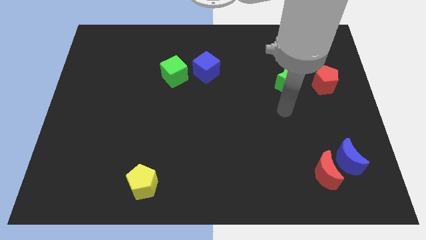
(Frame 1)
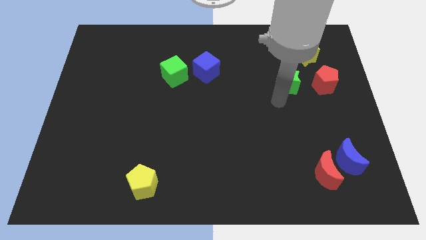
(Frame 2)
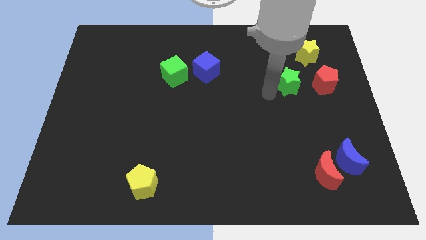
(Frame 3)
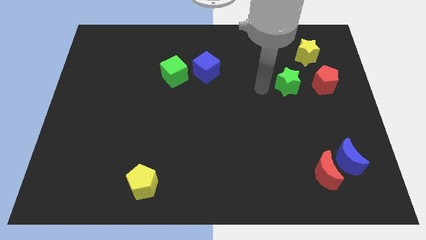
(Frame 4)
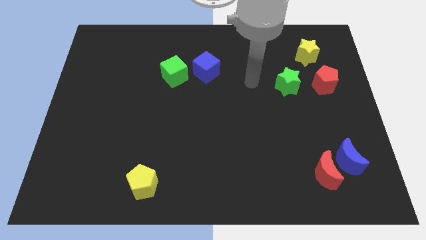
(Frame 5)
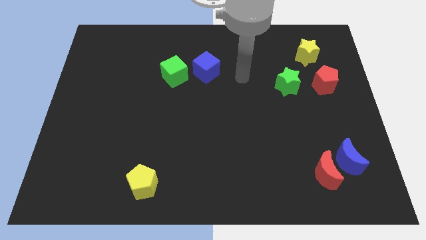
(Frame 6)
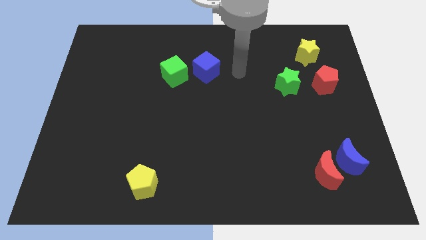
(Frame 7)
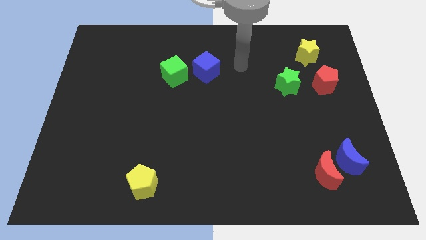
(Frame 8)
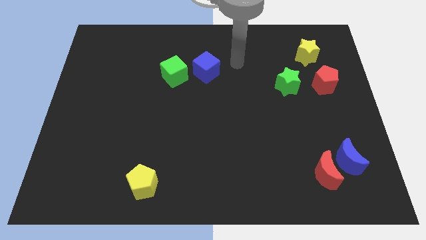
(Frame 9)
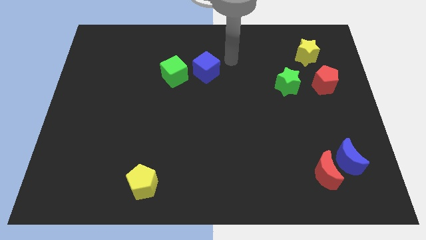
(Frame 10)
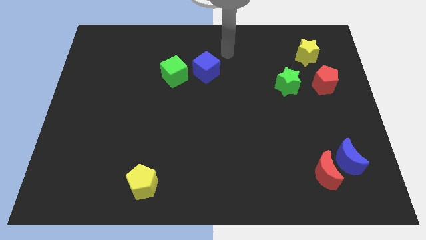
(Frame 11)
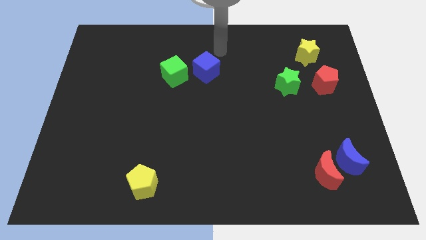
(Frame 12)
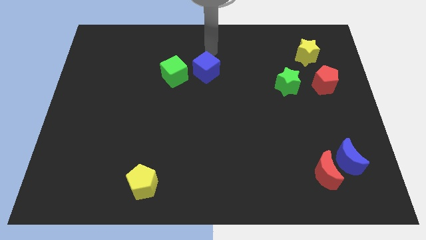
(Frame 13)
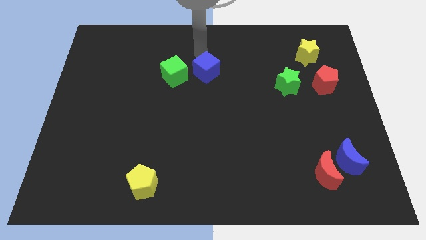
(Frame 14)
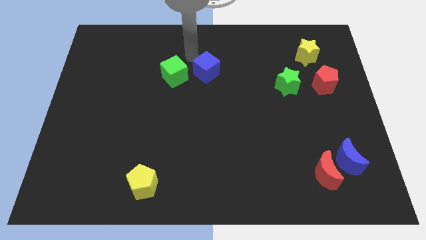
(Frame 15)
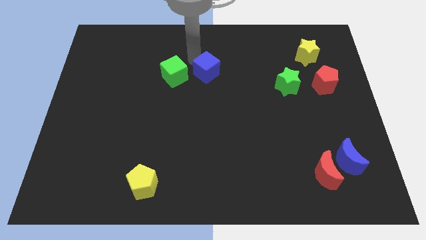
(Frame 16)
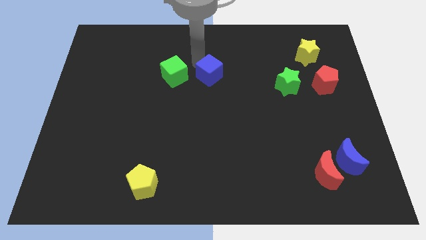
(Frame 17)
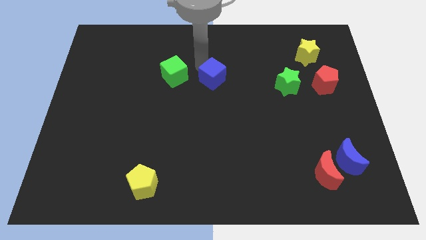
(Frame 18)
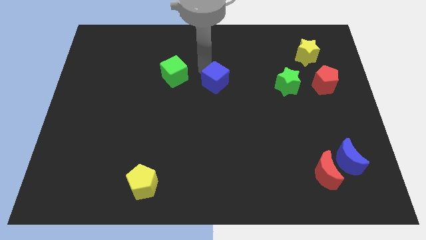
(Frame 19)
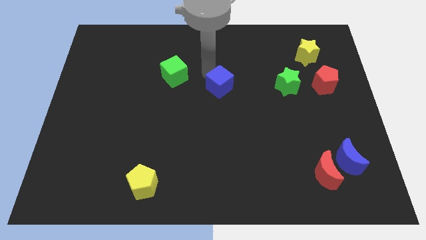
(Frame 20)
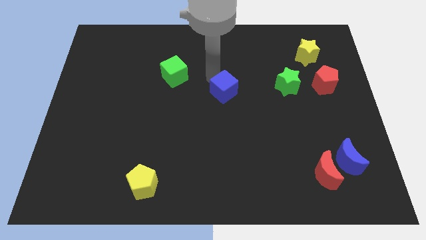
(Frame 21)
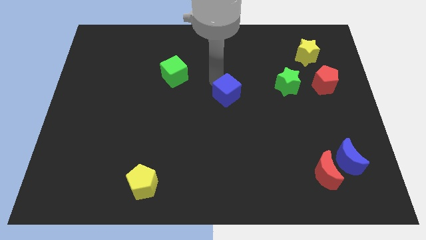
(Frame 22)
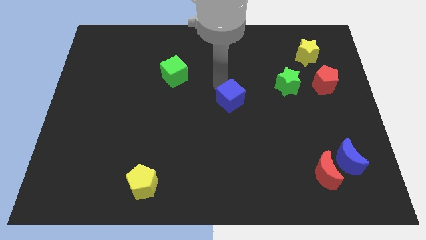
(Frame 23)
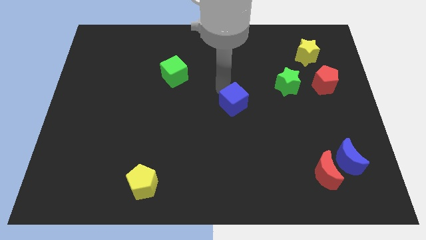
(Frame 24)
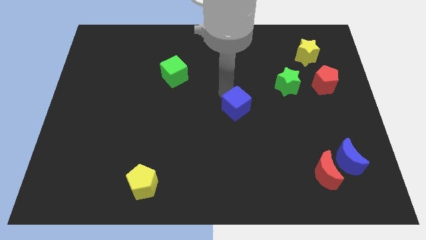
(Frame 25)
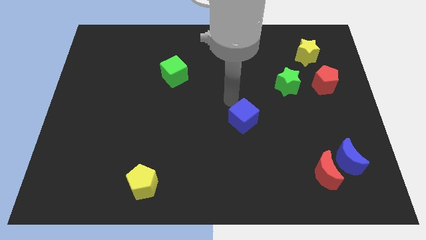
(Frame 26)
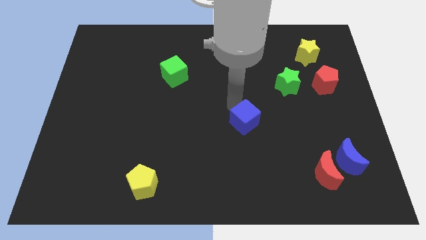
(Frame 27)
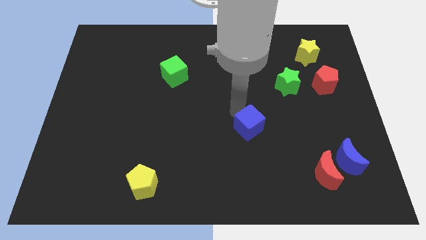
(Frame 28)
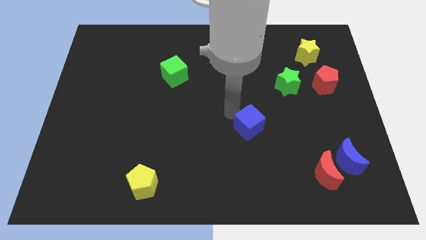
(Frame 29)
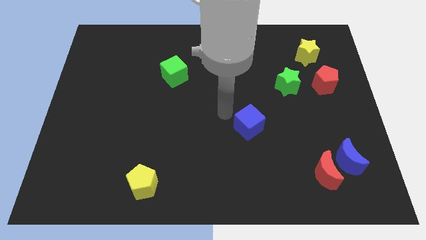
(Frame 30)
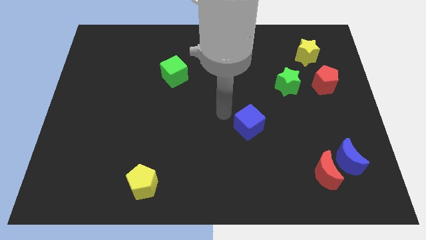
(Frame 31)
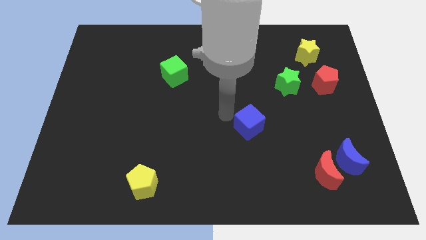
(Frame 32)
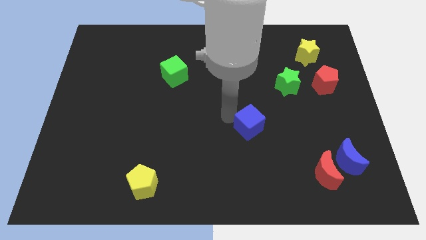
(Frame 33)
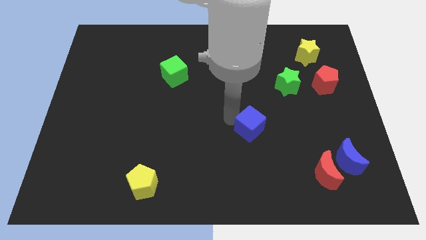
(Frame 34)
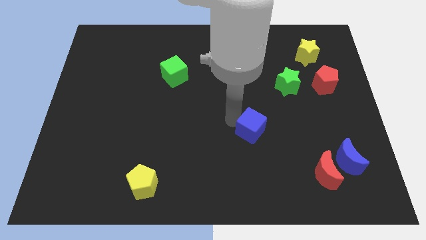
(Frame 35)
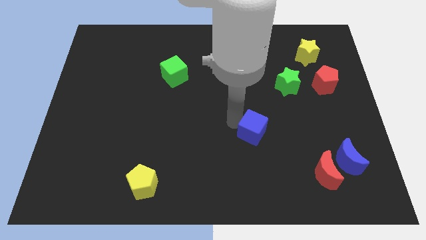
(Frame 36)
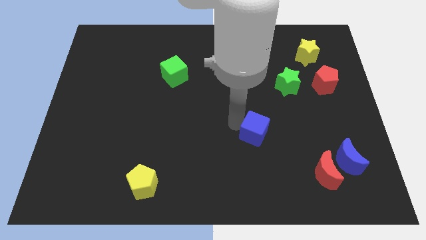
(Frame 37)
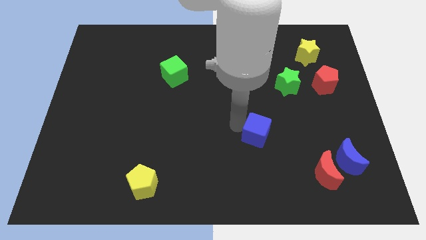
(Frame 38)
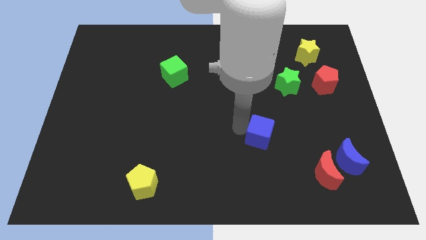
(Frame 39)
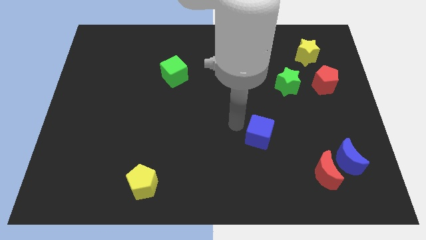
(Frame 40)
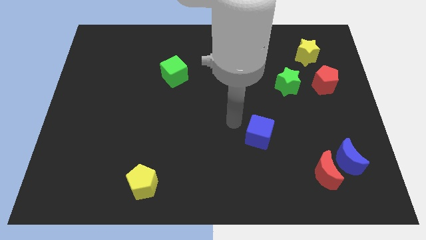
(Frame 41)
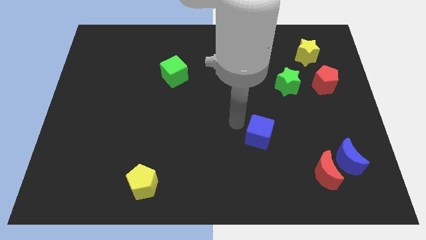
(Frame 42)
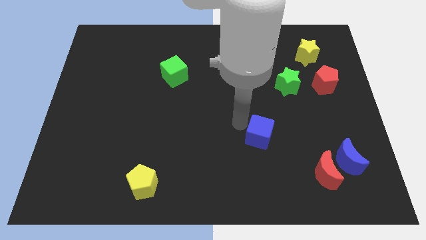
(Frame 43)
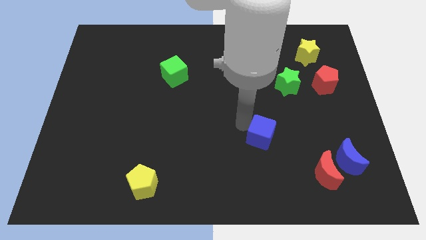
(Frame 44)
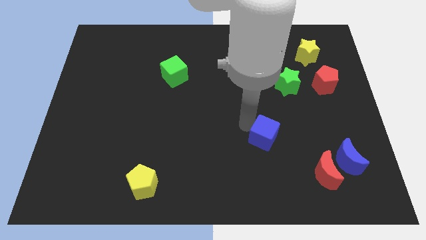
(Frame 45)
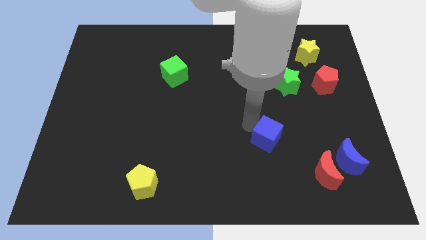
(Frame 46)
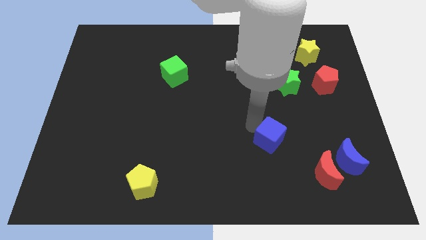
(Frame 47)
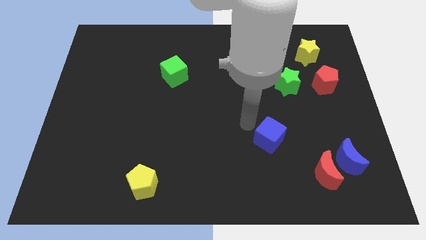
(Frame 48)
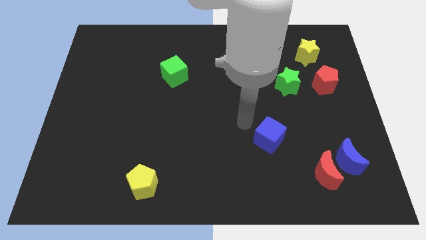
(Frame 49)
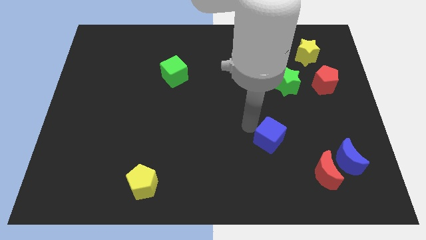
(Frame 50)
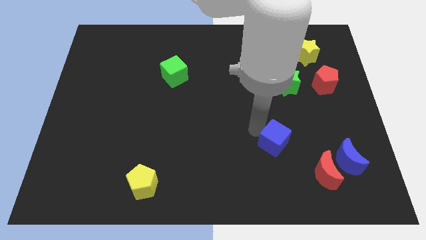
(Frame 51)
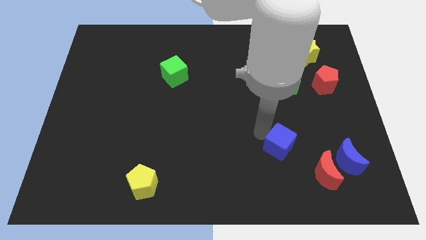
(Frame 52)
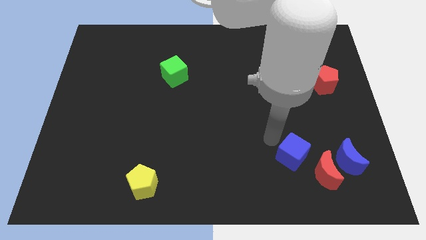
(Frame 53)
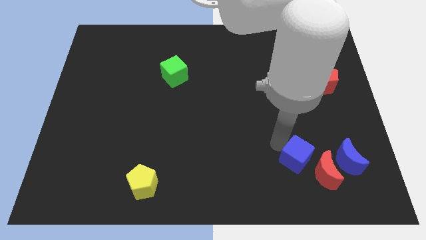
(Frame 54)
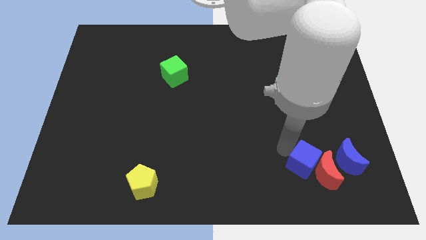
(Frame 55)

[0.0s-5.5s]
put the blue cube close to the red moon

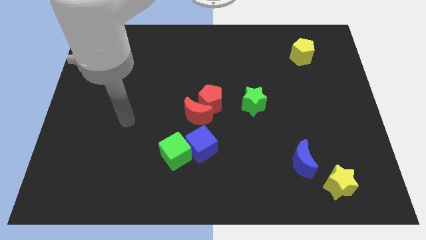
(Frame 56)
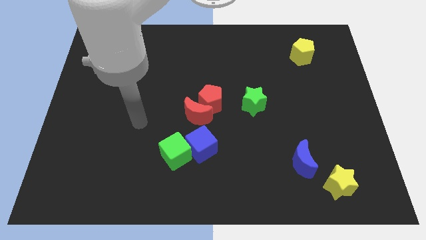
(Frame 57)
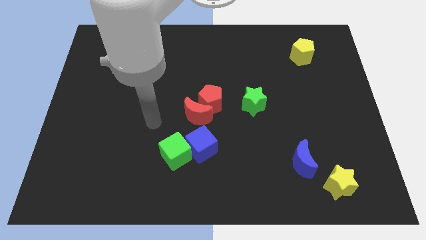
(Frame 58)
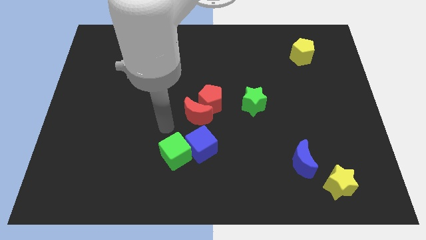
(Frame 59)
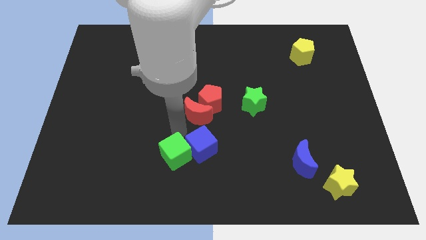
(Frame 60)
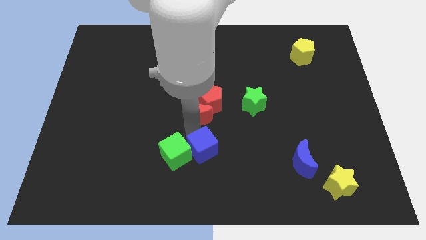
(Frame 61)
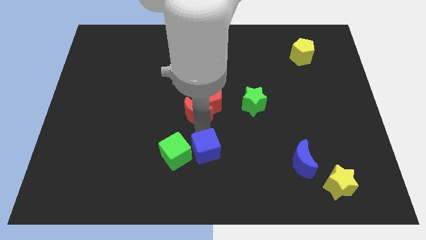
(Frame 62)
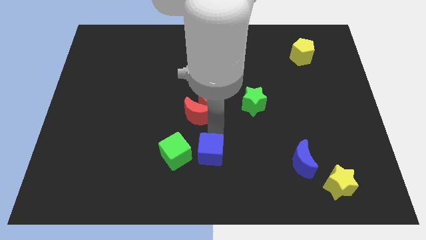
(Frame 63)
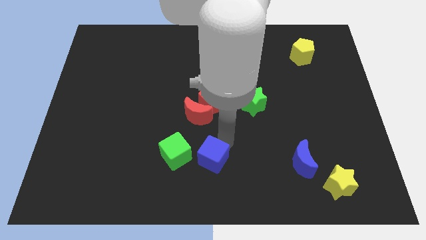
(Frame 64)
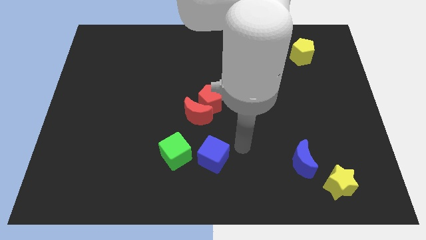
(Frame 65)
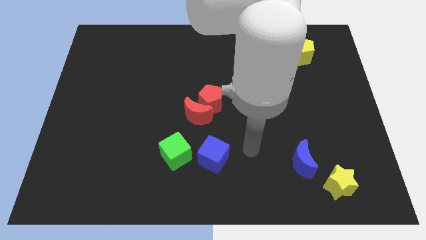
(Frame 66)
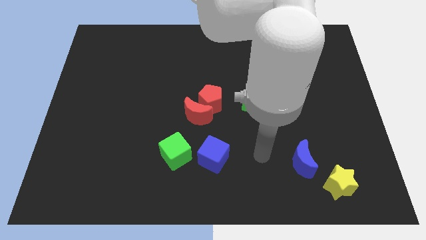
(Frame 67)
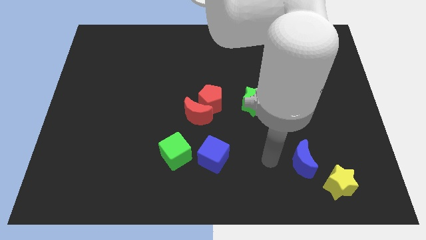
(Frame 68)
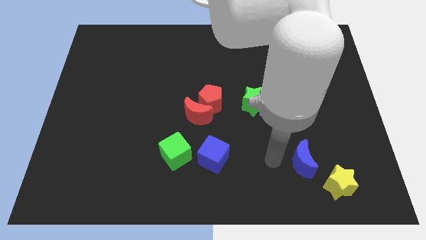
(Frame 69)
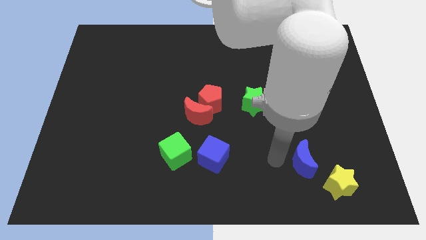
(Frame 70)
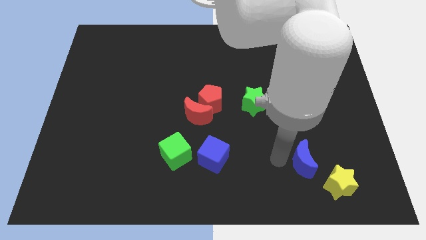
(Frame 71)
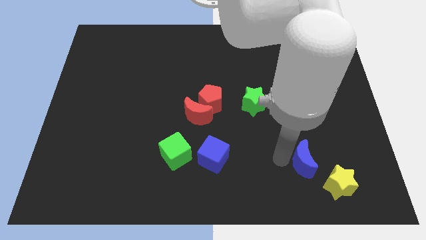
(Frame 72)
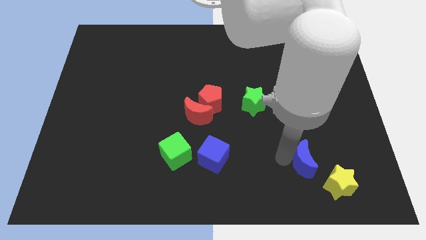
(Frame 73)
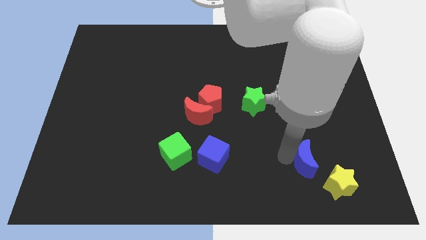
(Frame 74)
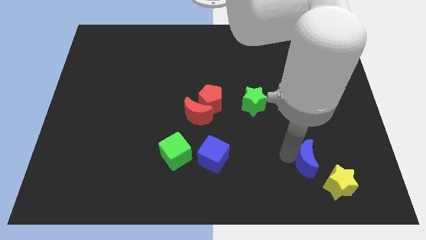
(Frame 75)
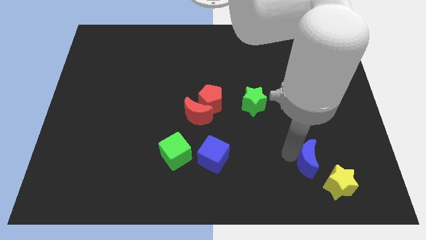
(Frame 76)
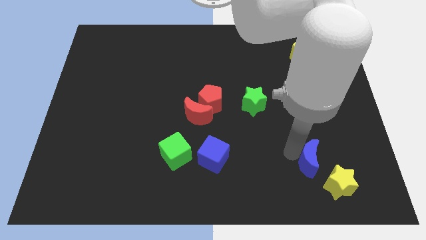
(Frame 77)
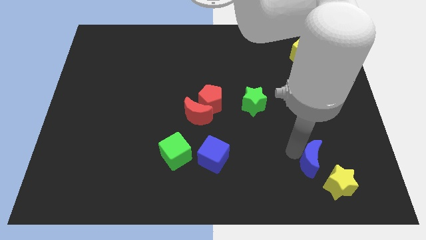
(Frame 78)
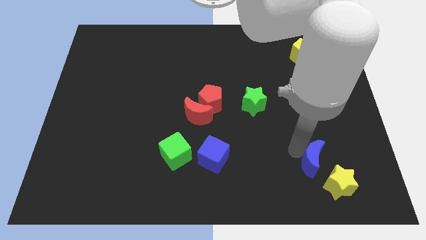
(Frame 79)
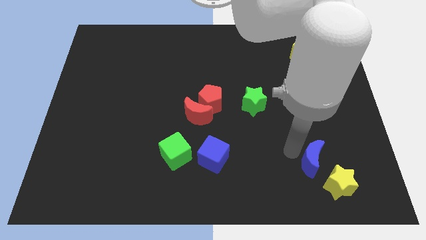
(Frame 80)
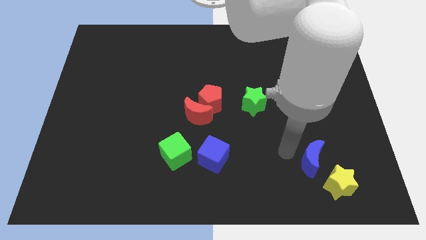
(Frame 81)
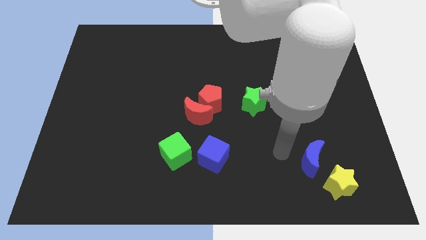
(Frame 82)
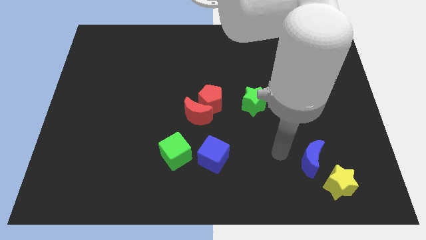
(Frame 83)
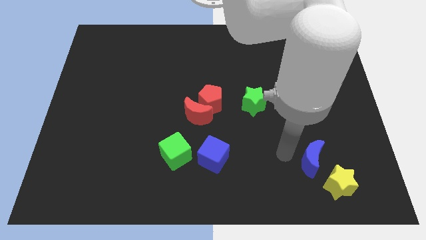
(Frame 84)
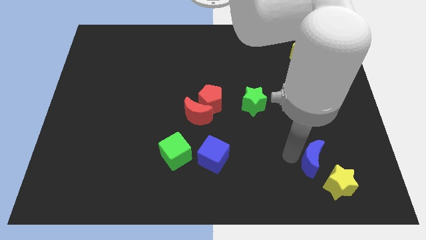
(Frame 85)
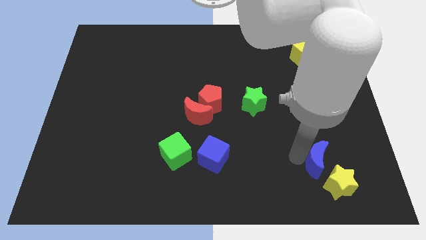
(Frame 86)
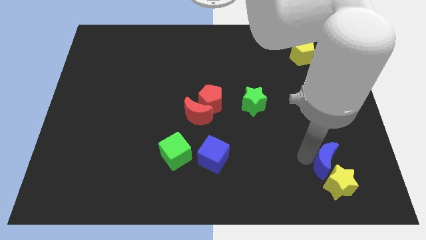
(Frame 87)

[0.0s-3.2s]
move the blue moon to the yellow star
